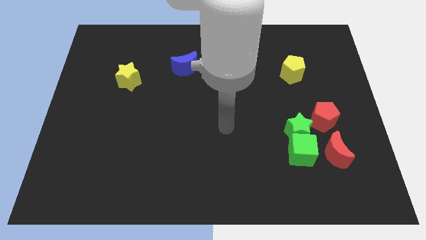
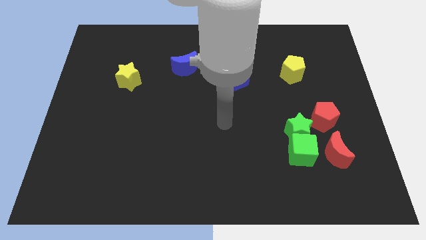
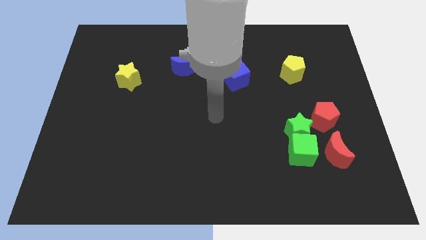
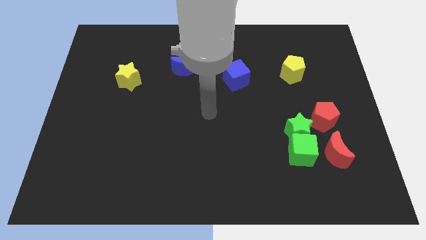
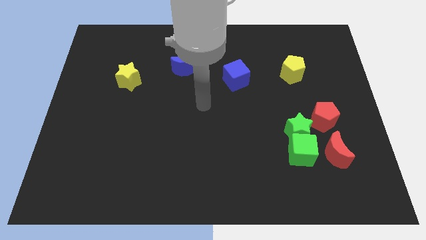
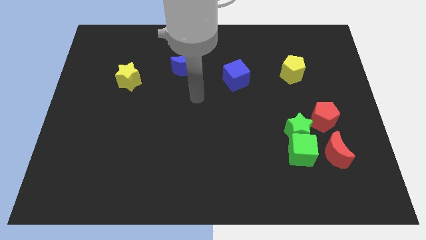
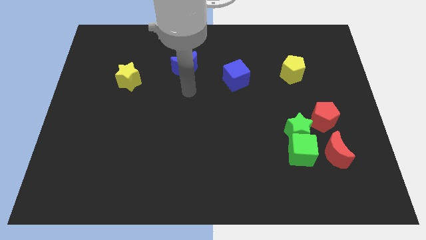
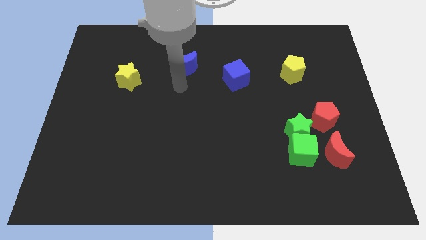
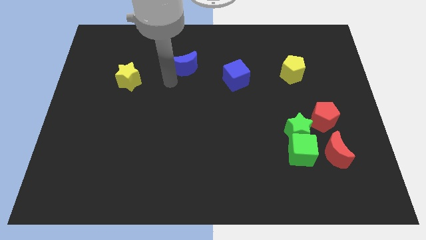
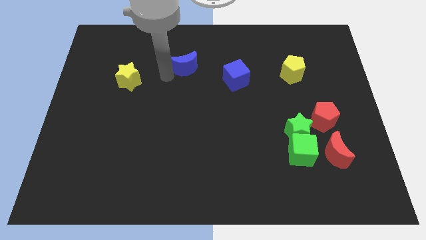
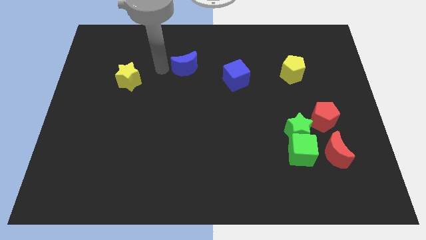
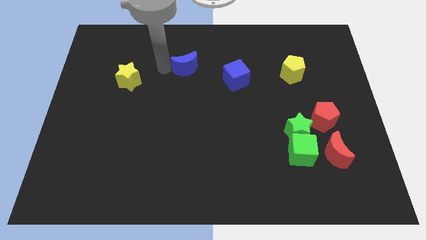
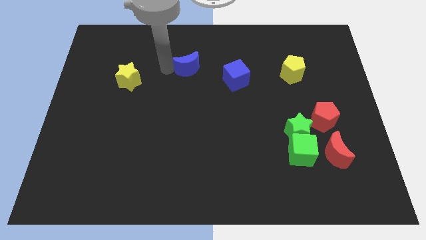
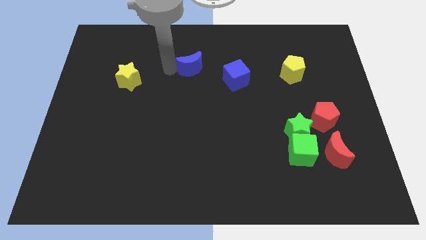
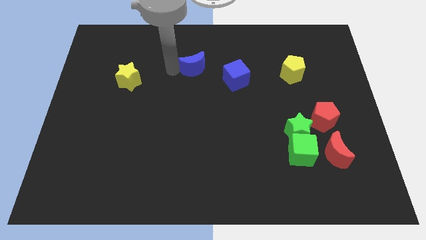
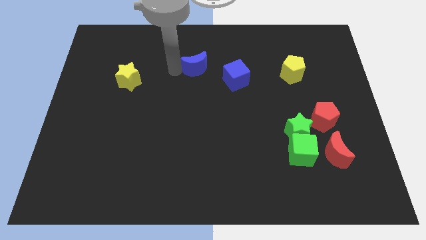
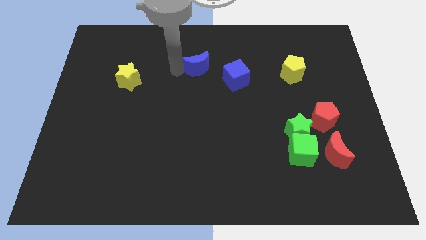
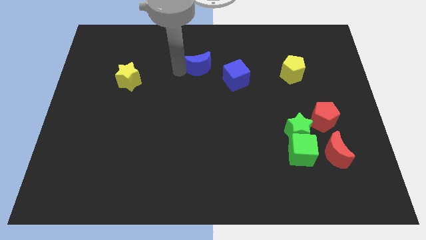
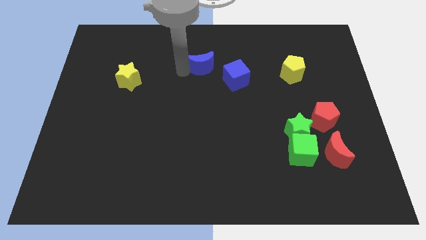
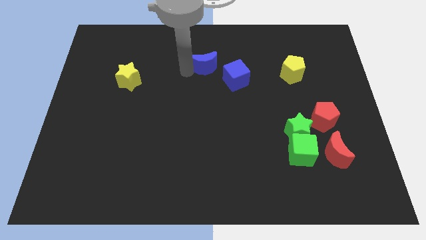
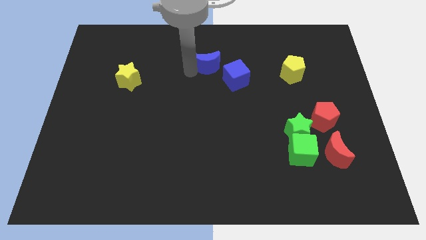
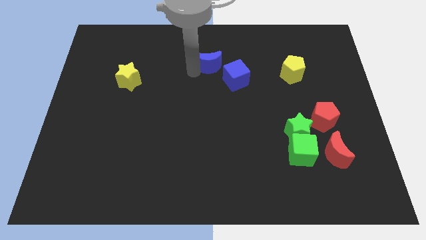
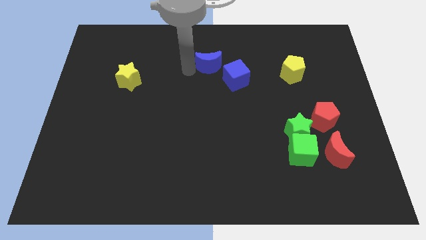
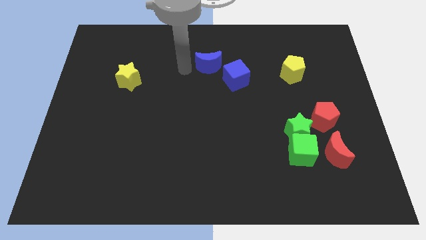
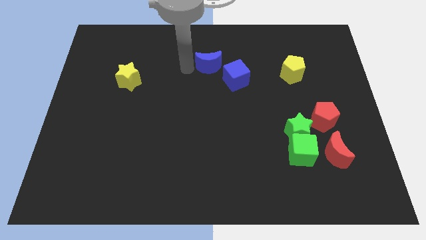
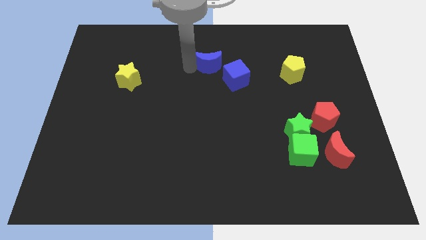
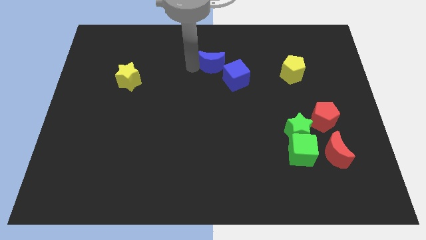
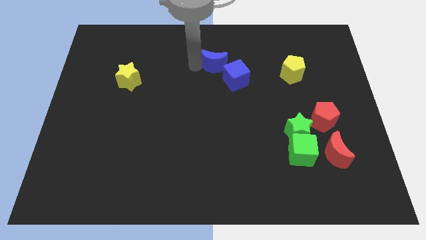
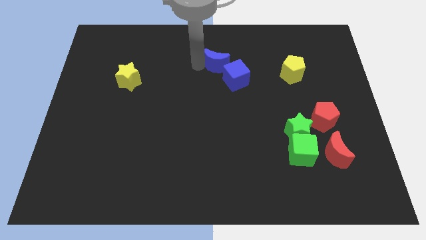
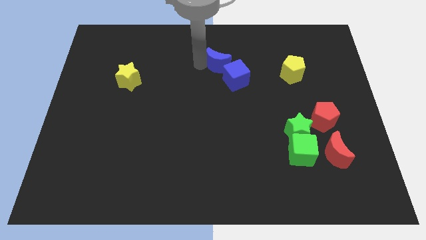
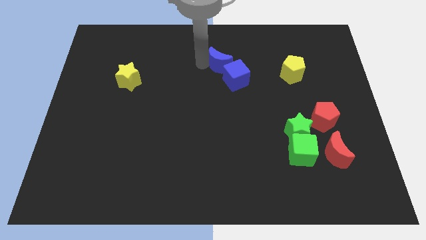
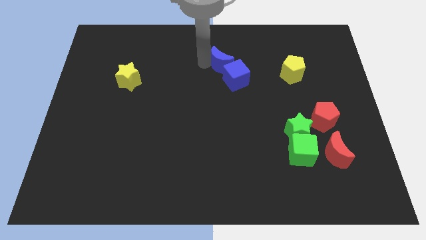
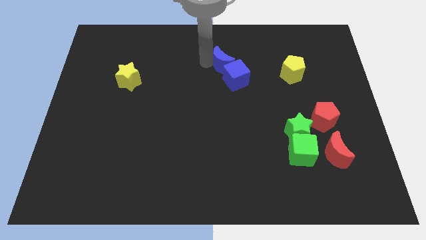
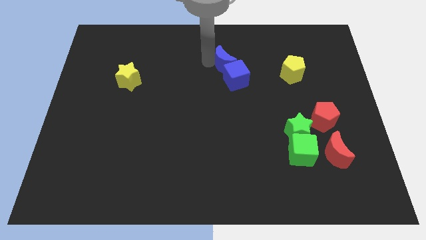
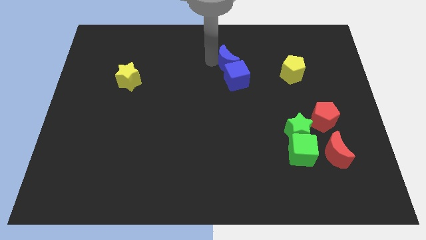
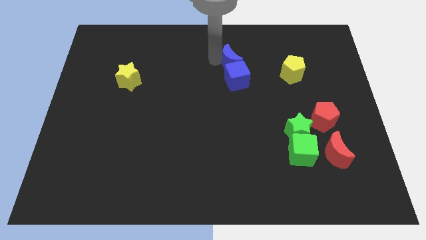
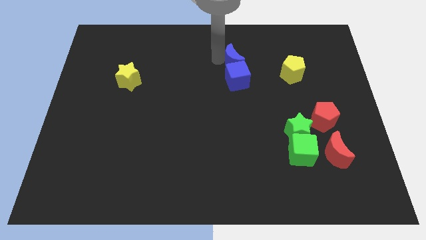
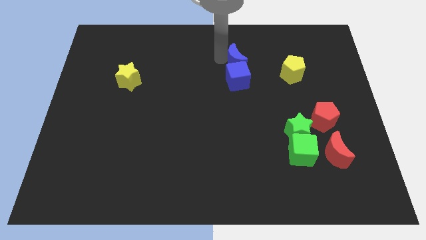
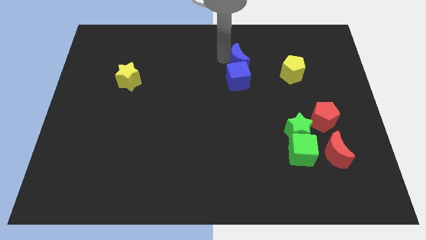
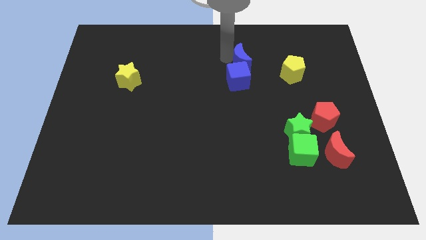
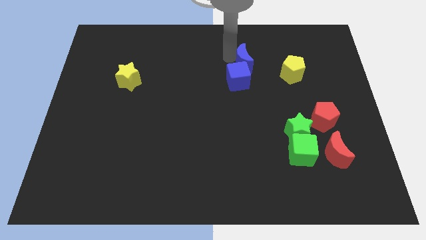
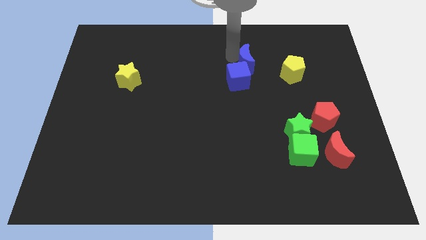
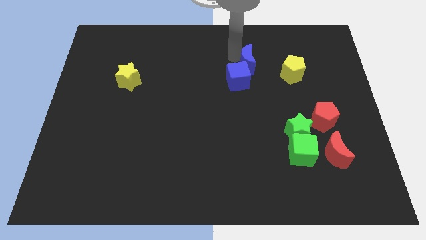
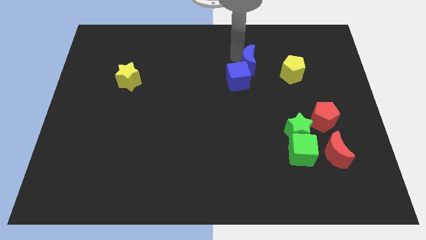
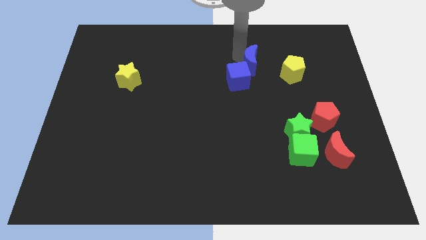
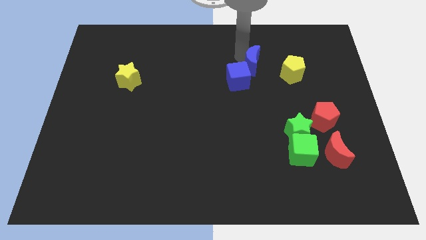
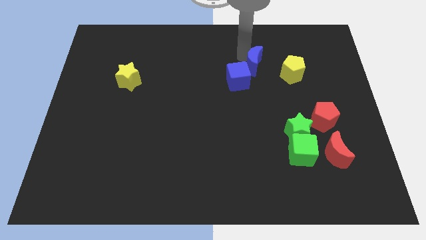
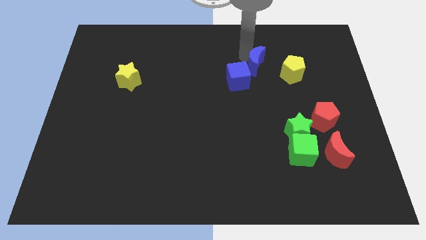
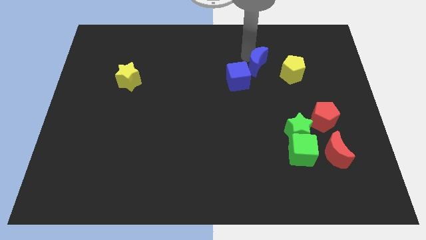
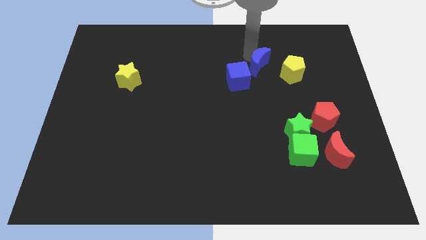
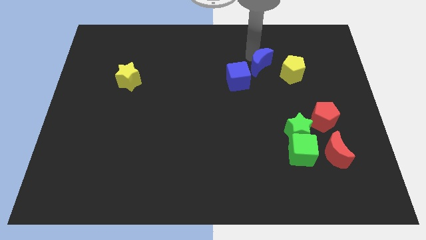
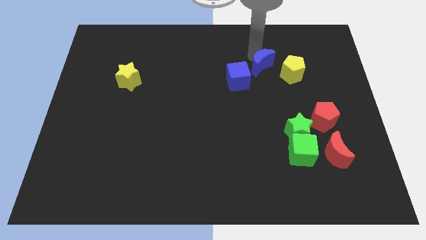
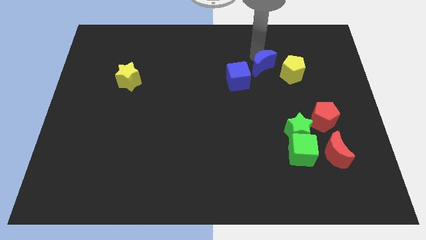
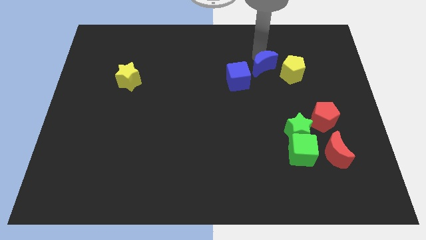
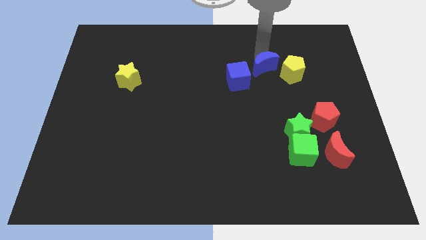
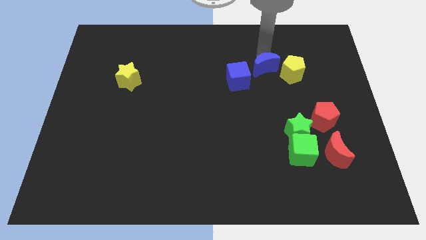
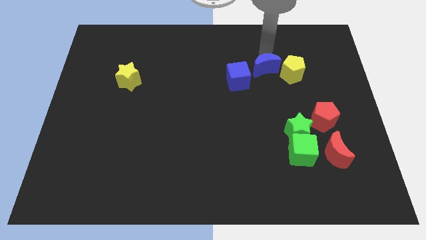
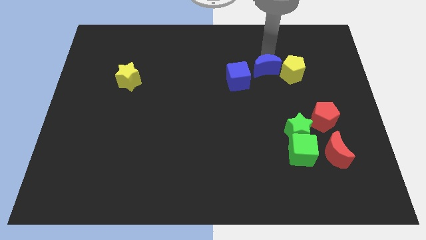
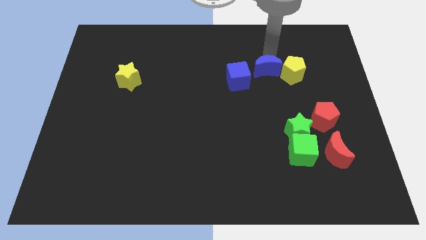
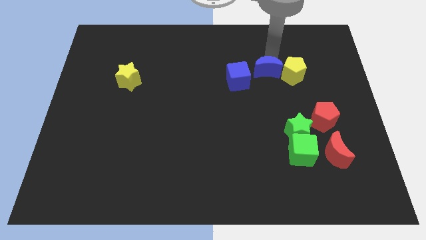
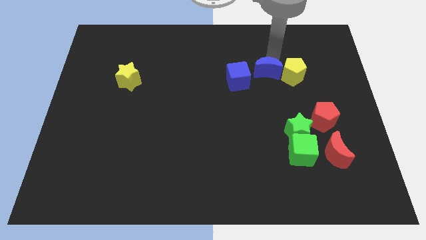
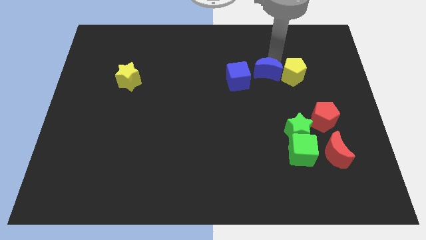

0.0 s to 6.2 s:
put the blue moon diagonally down and to the left of the yellow pentagon

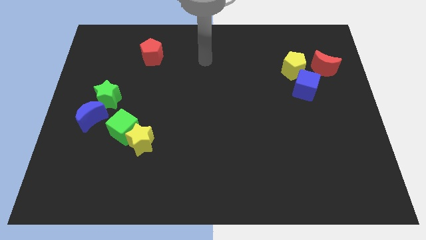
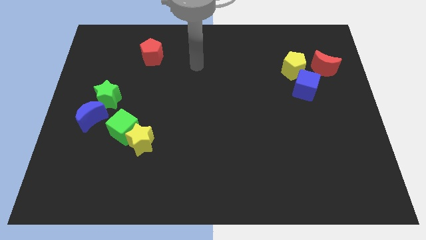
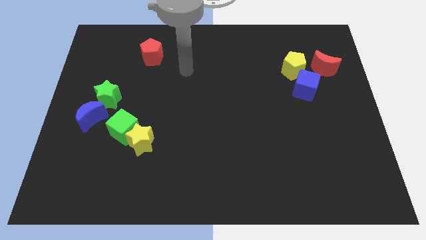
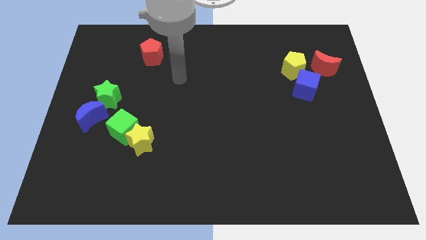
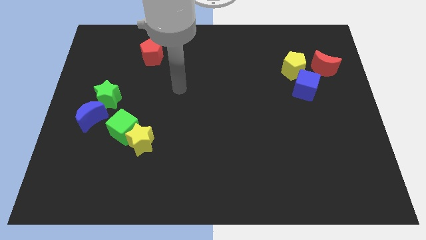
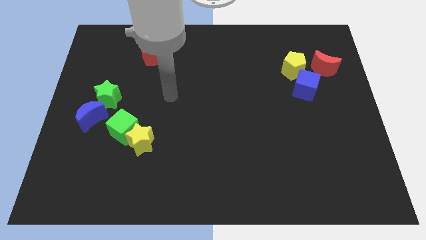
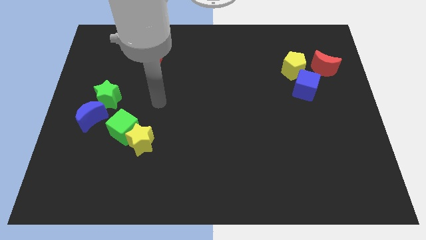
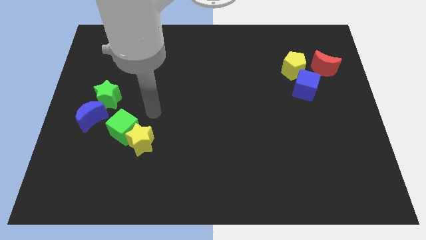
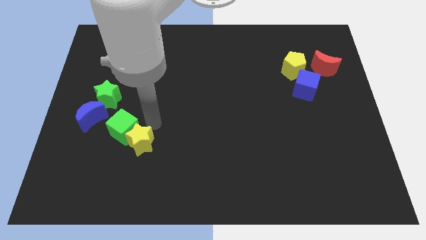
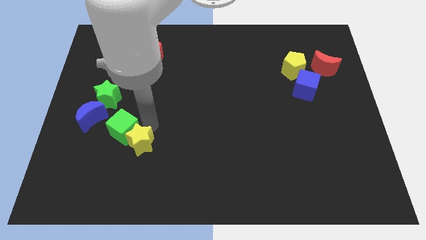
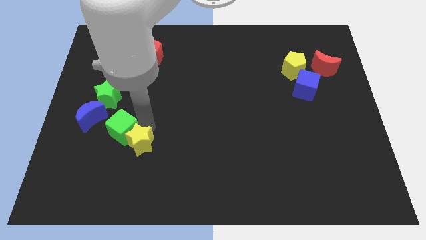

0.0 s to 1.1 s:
slide the green cube to the bottom side of the green star
